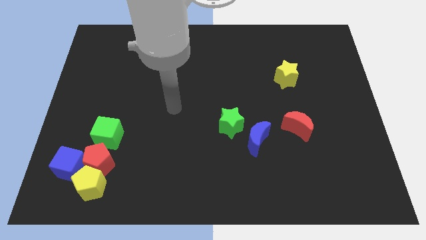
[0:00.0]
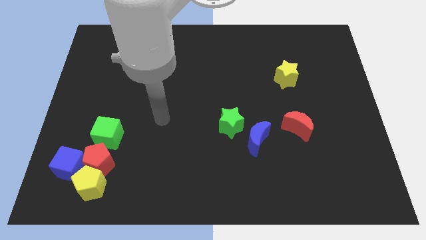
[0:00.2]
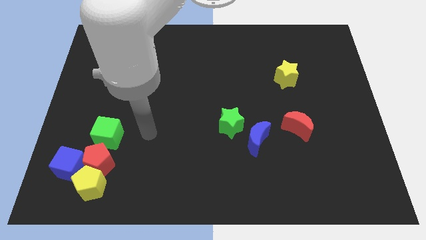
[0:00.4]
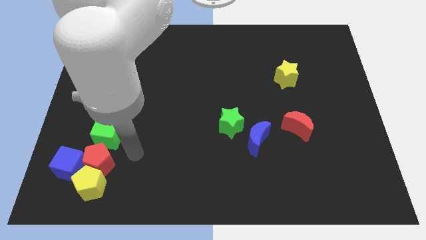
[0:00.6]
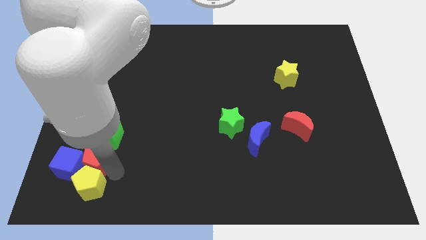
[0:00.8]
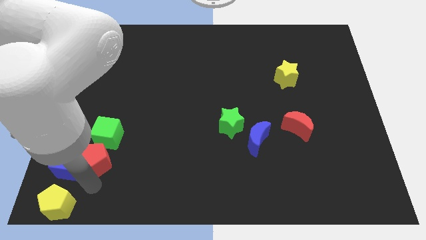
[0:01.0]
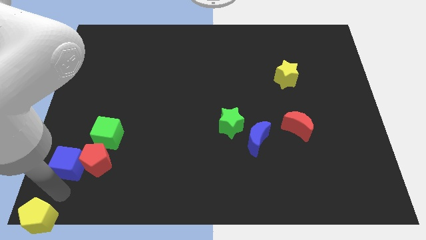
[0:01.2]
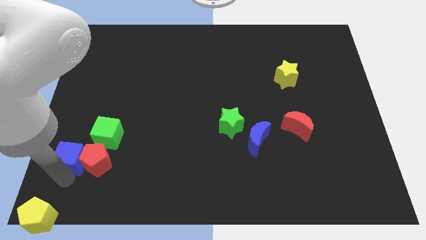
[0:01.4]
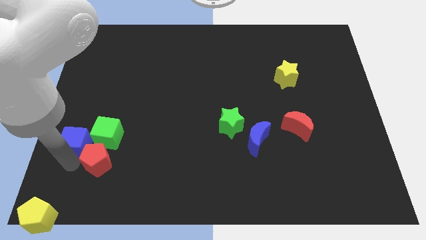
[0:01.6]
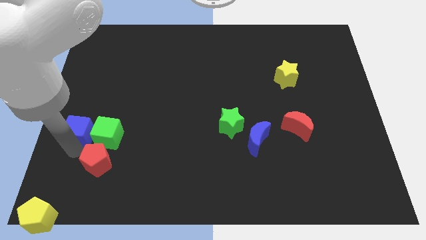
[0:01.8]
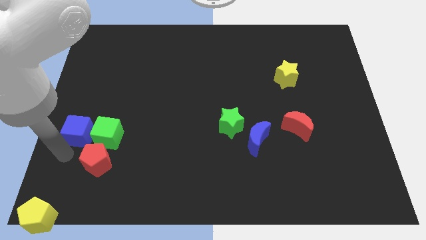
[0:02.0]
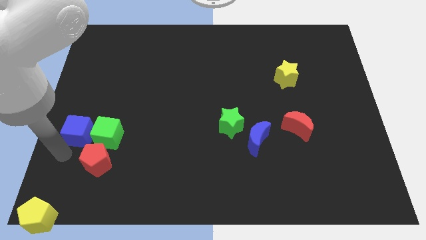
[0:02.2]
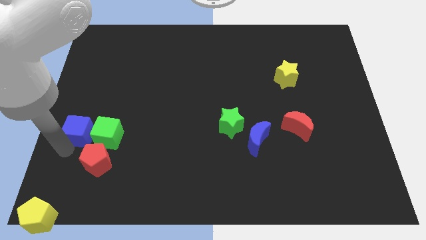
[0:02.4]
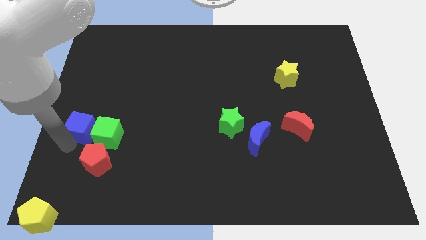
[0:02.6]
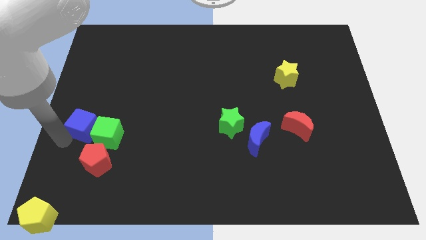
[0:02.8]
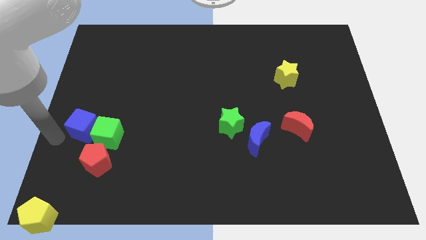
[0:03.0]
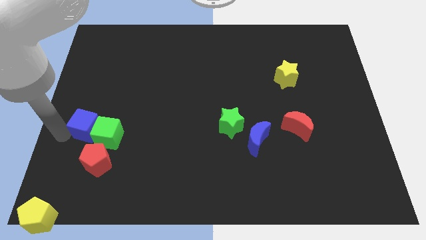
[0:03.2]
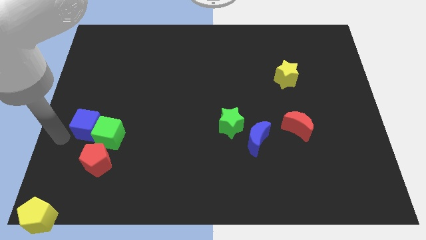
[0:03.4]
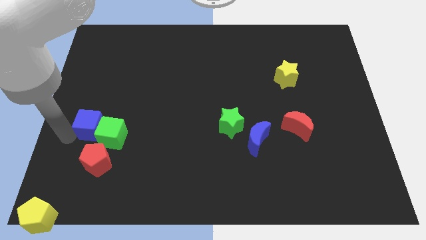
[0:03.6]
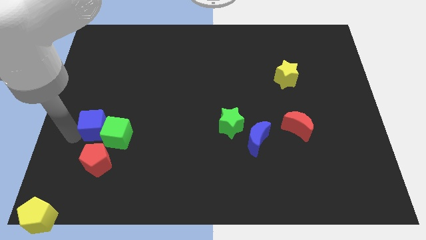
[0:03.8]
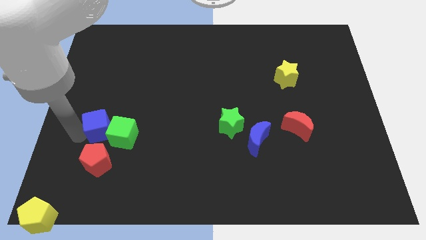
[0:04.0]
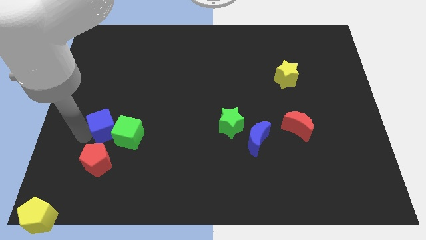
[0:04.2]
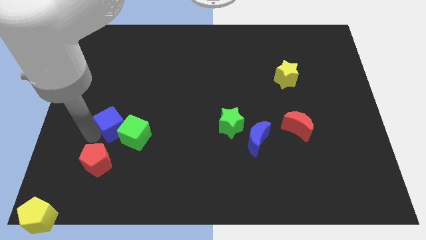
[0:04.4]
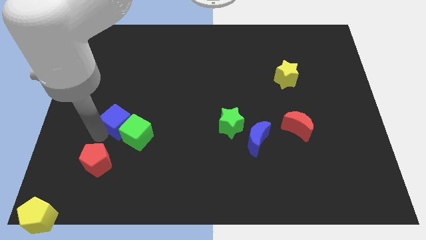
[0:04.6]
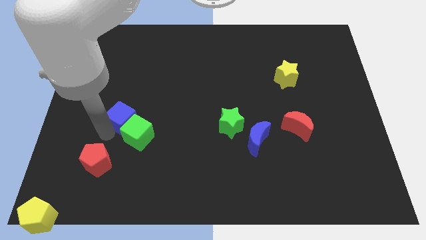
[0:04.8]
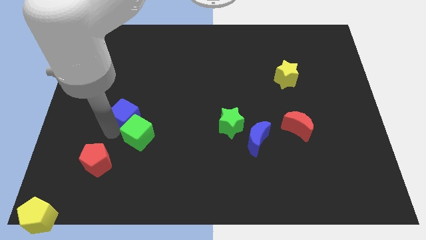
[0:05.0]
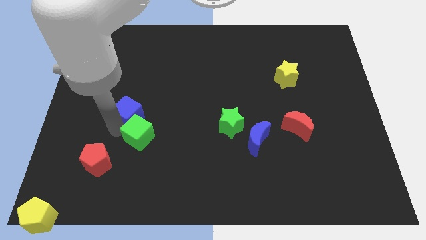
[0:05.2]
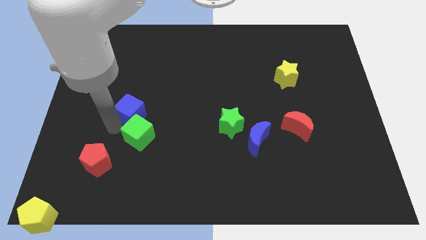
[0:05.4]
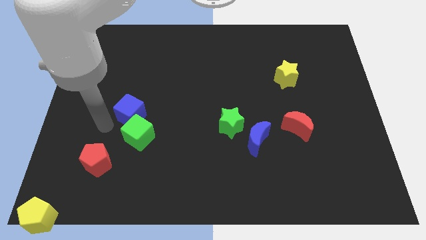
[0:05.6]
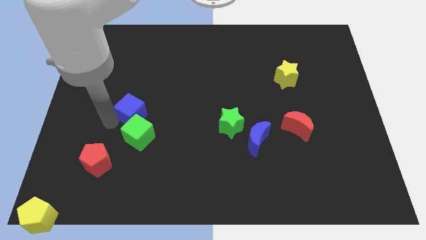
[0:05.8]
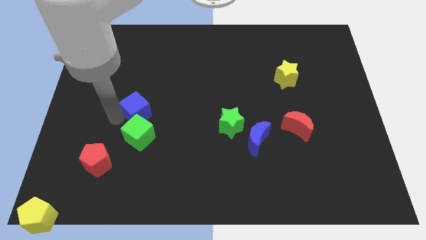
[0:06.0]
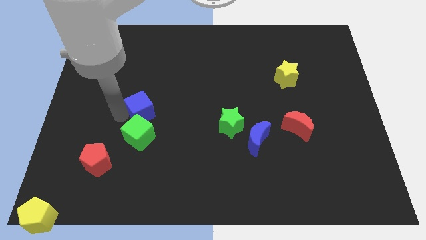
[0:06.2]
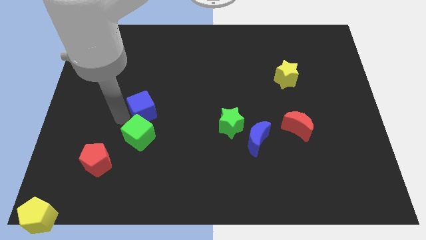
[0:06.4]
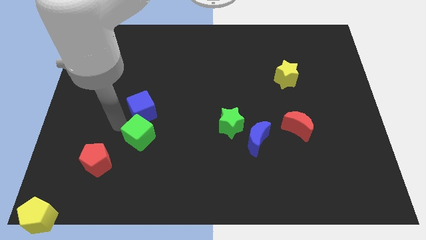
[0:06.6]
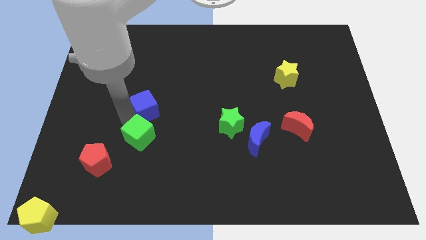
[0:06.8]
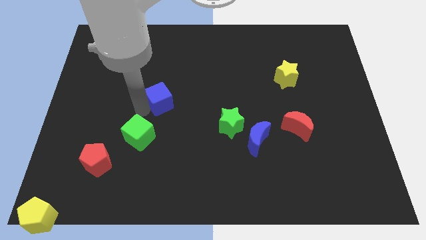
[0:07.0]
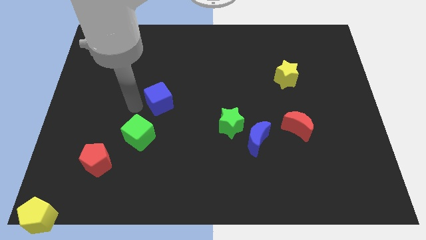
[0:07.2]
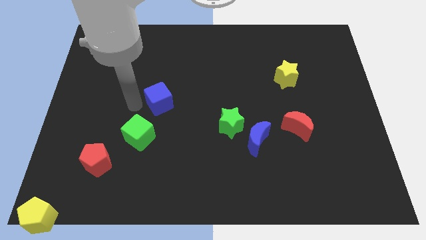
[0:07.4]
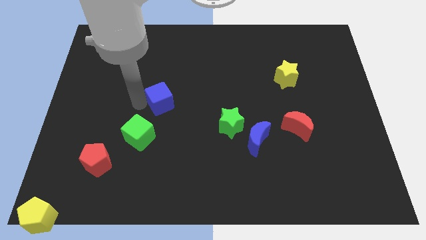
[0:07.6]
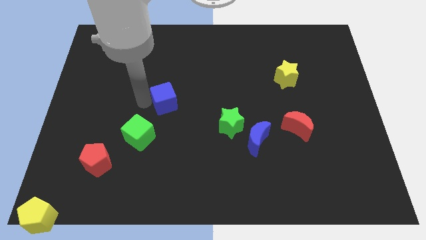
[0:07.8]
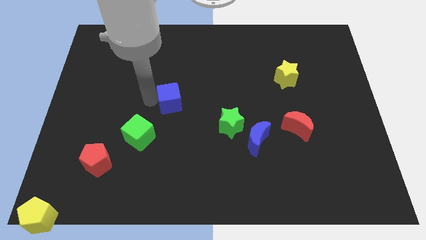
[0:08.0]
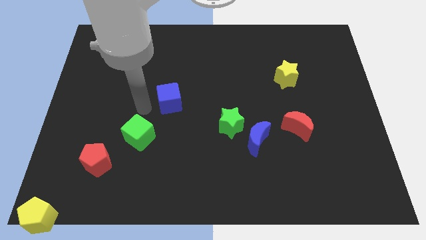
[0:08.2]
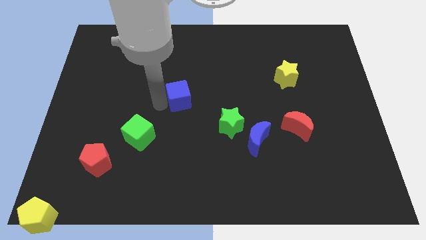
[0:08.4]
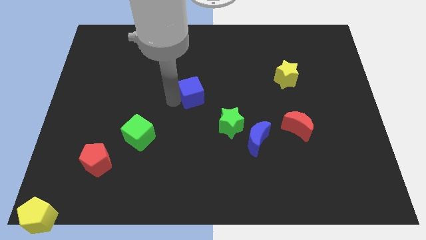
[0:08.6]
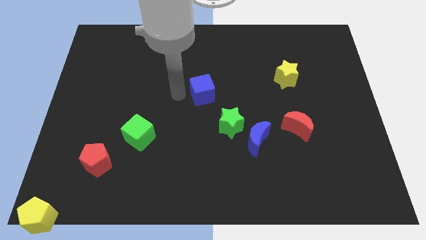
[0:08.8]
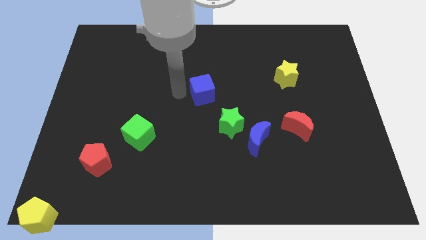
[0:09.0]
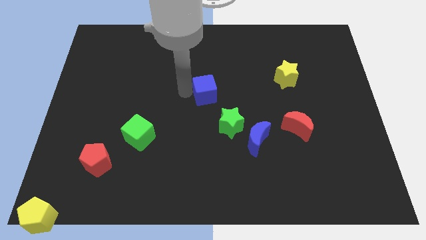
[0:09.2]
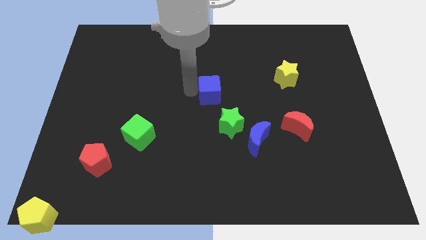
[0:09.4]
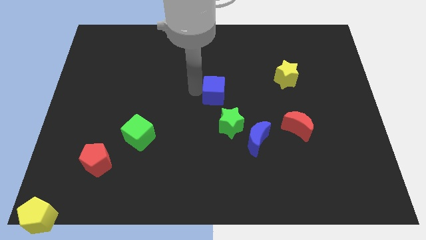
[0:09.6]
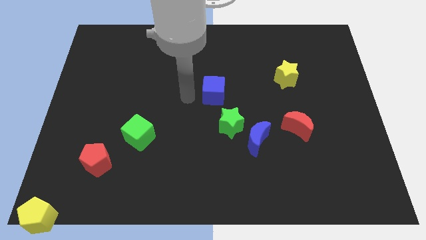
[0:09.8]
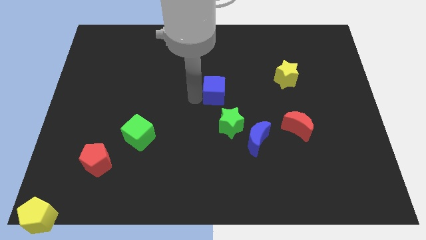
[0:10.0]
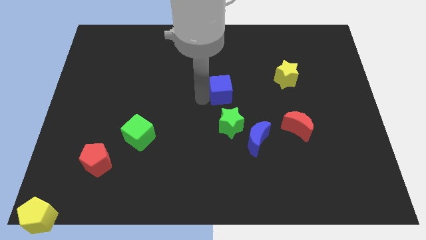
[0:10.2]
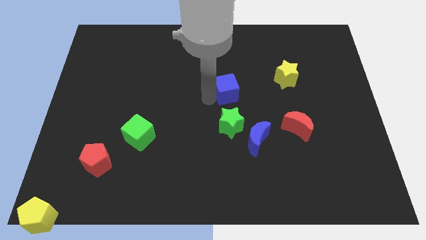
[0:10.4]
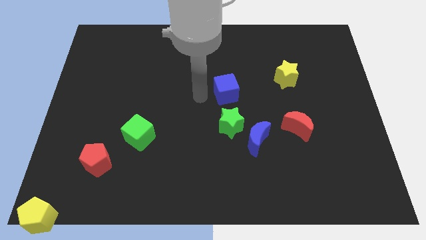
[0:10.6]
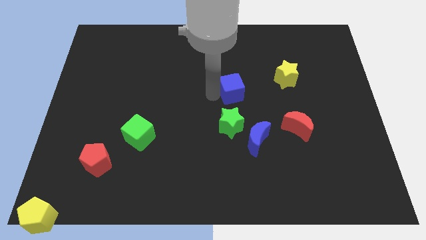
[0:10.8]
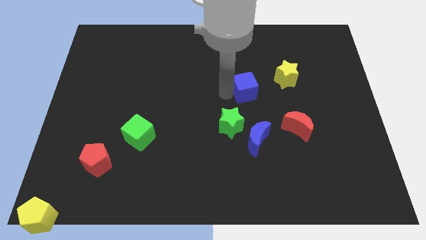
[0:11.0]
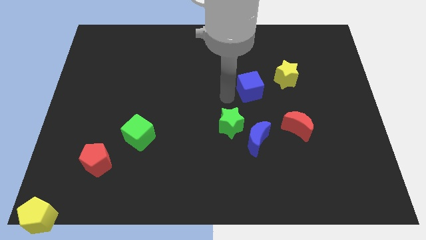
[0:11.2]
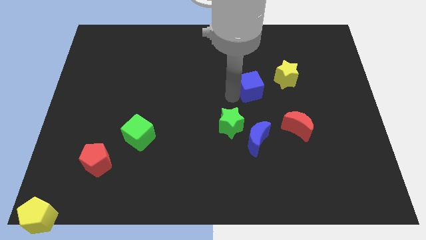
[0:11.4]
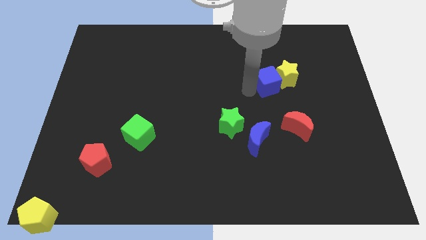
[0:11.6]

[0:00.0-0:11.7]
push the blue cube next to the yellow star

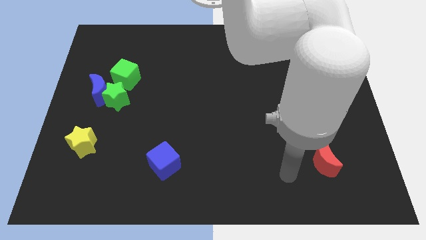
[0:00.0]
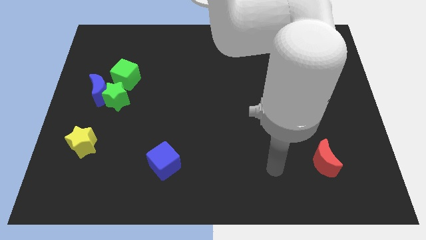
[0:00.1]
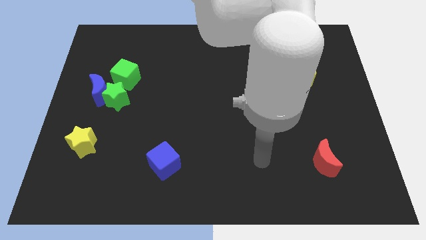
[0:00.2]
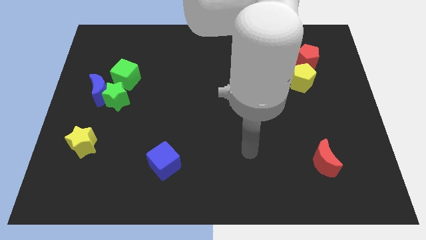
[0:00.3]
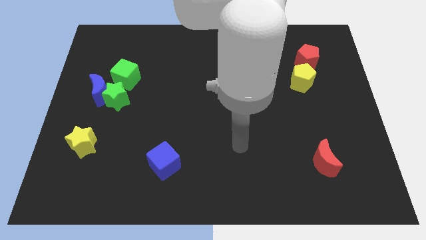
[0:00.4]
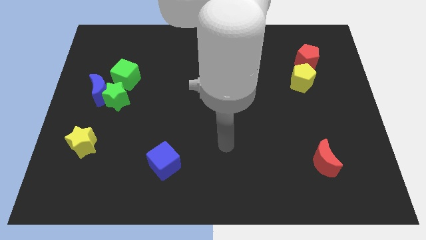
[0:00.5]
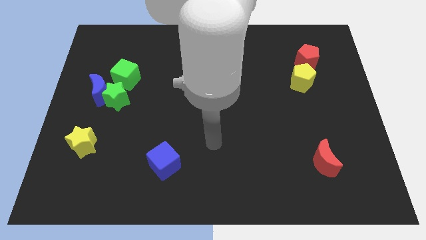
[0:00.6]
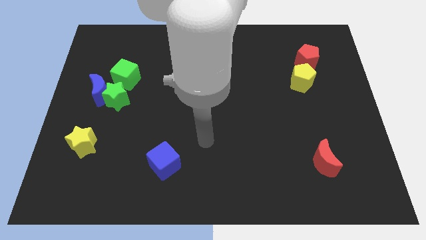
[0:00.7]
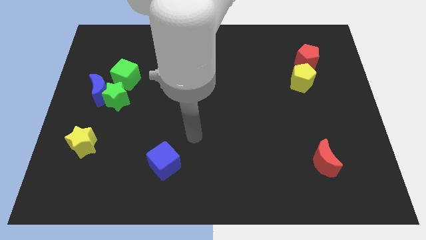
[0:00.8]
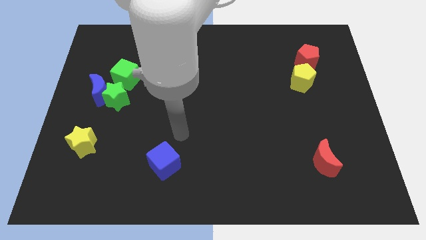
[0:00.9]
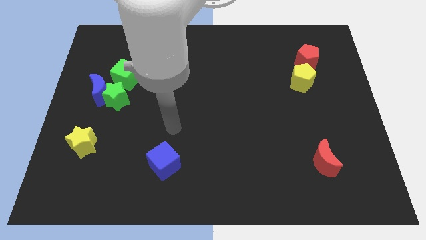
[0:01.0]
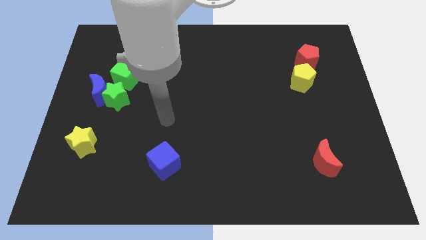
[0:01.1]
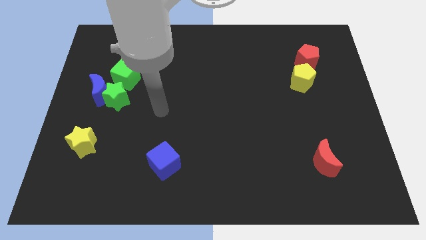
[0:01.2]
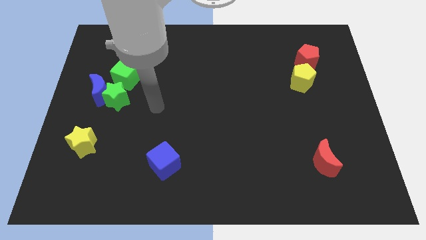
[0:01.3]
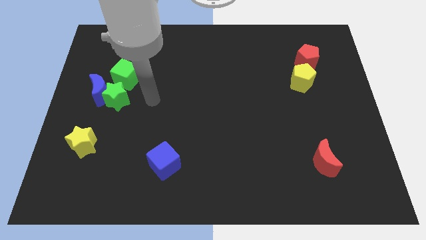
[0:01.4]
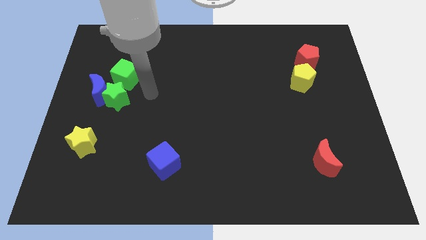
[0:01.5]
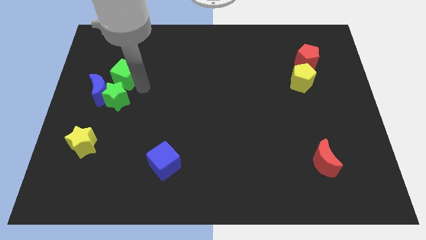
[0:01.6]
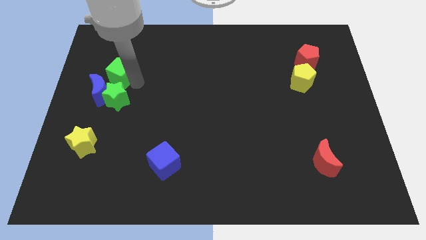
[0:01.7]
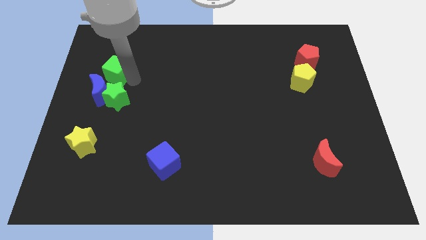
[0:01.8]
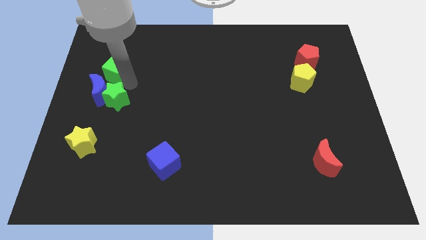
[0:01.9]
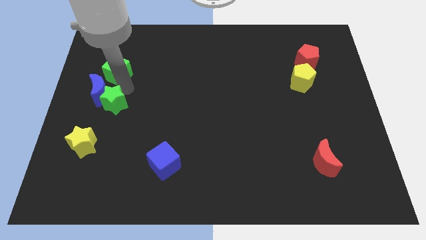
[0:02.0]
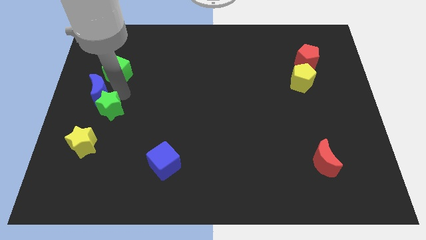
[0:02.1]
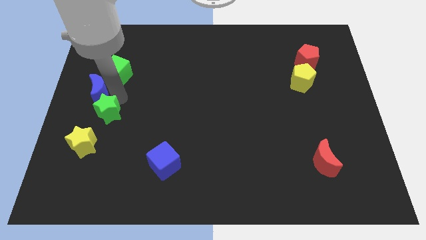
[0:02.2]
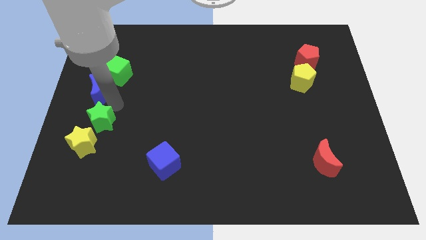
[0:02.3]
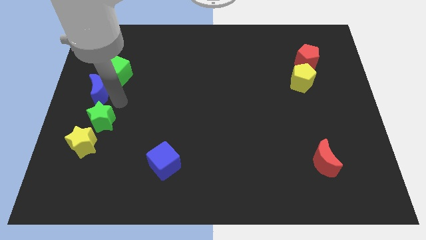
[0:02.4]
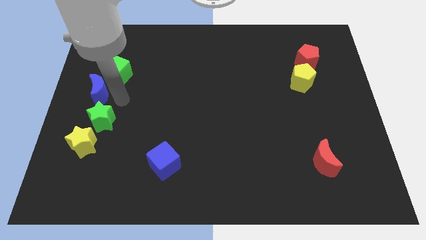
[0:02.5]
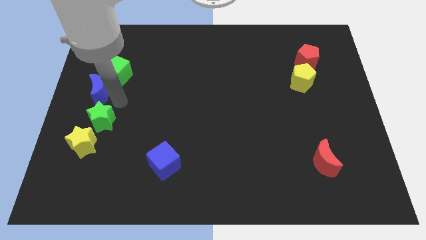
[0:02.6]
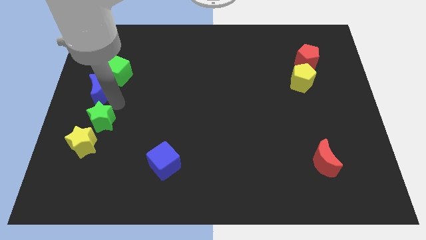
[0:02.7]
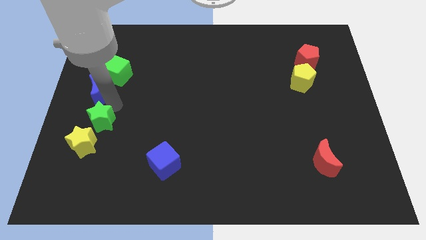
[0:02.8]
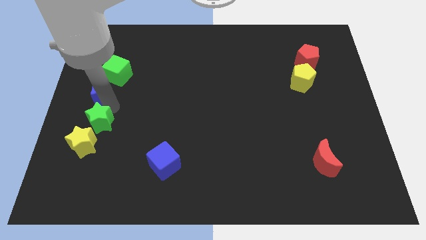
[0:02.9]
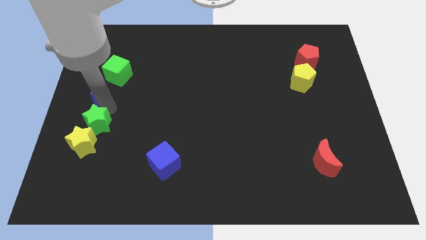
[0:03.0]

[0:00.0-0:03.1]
push the green star to the yellow star
